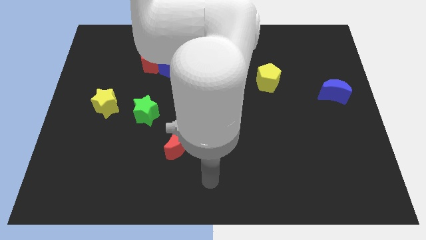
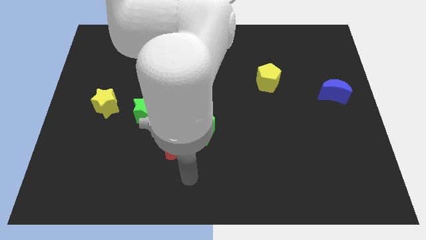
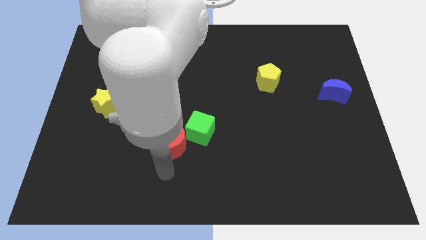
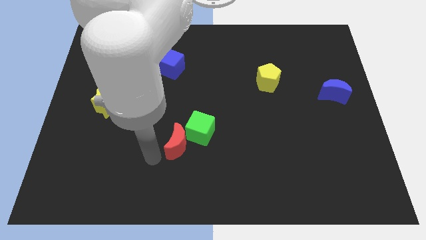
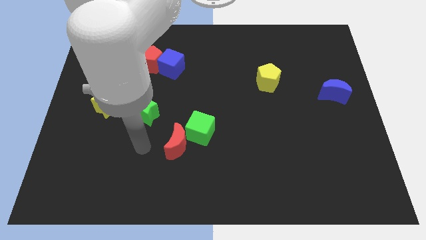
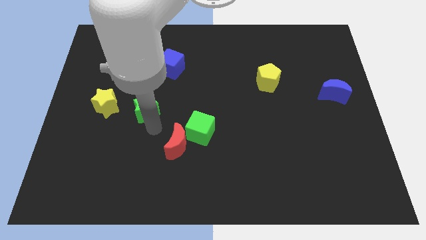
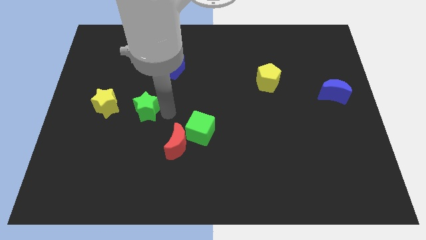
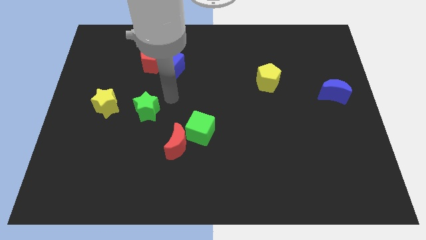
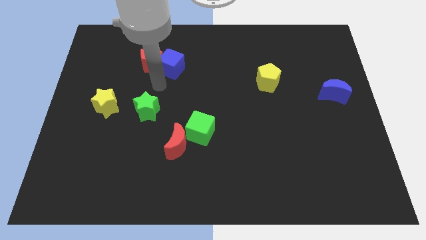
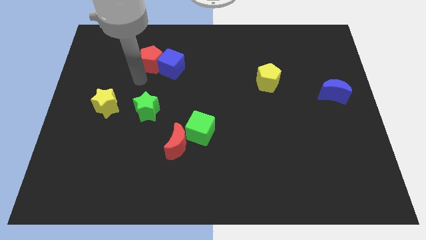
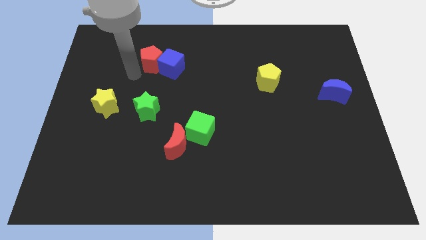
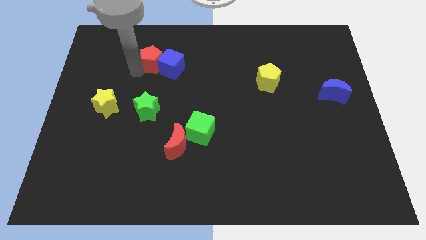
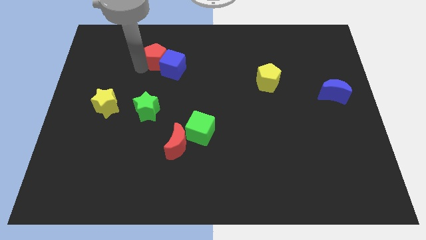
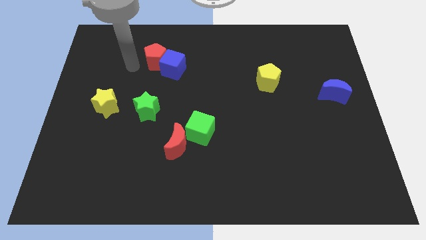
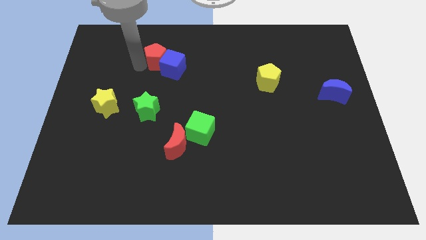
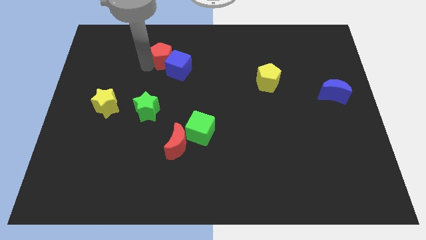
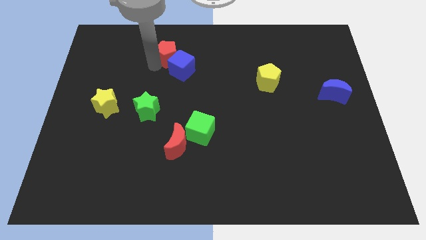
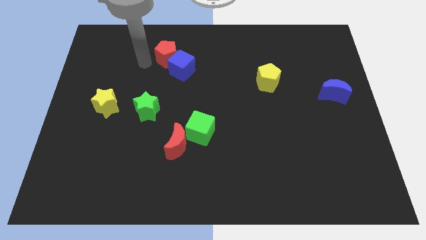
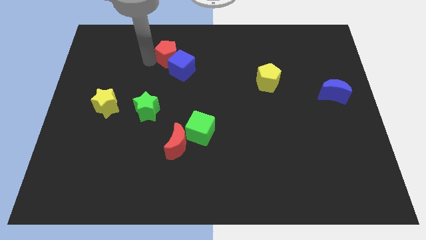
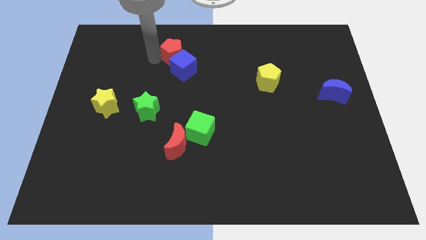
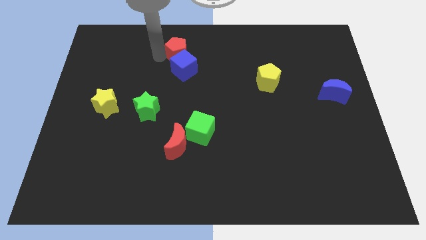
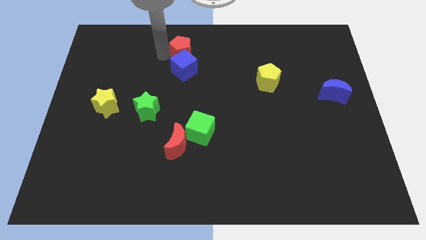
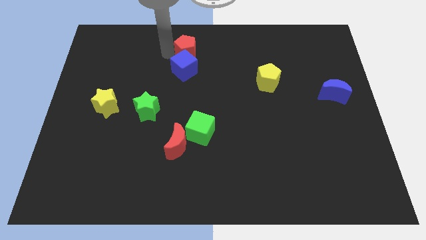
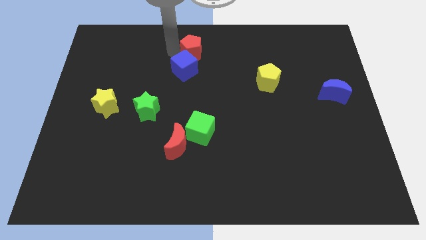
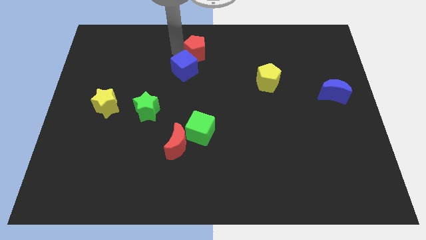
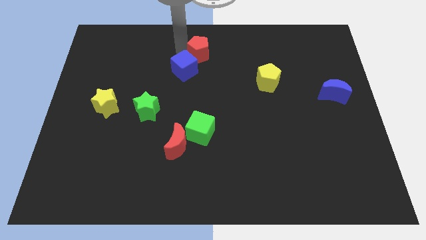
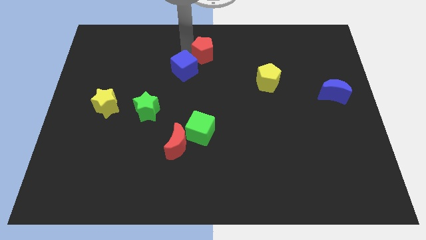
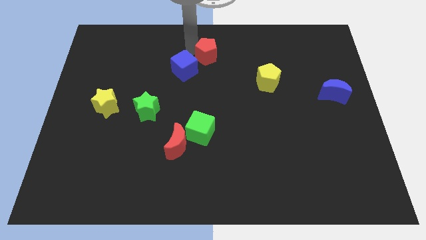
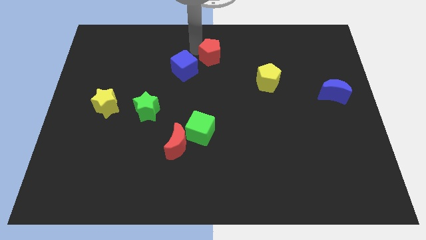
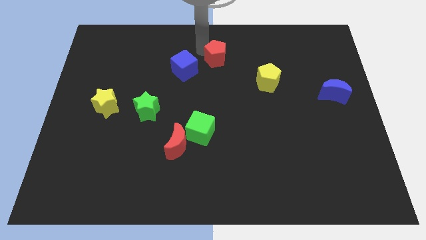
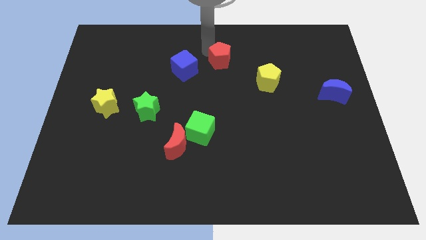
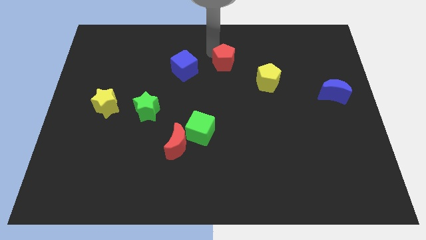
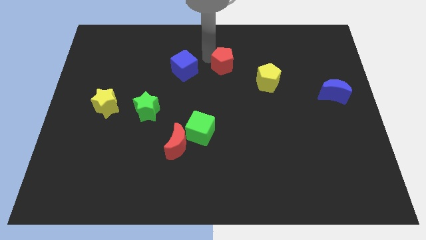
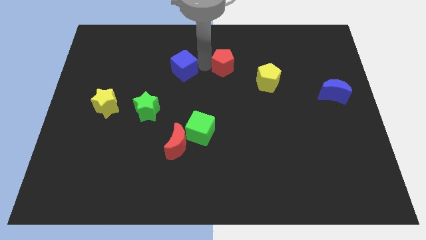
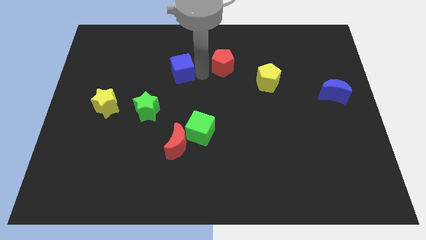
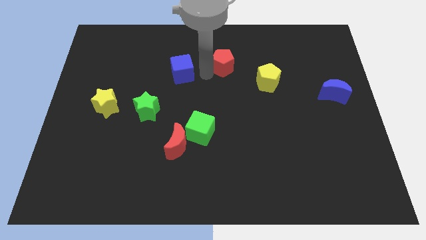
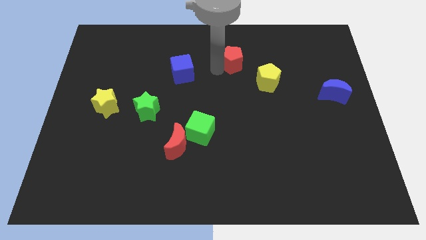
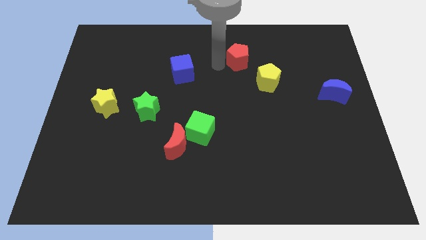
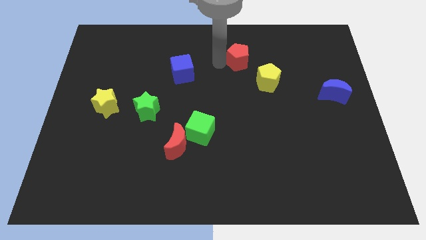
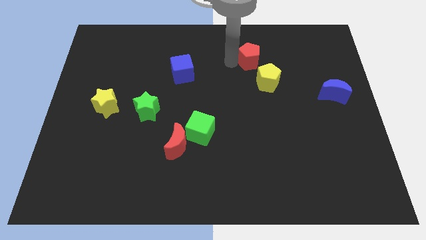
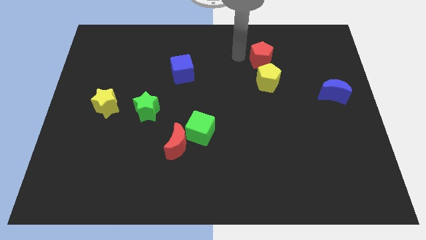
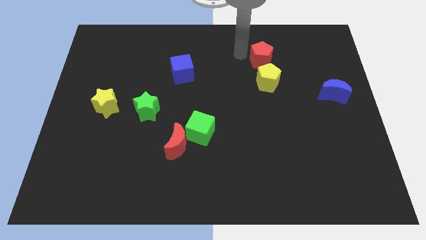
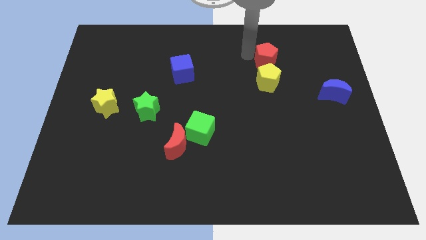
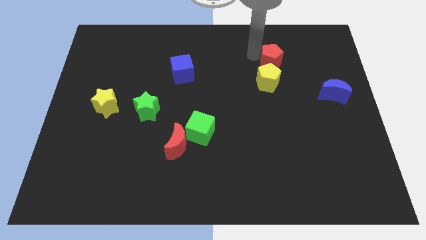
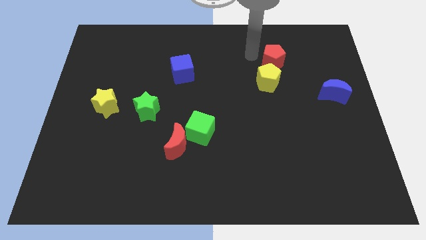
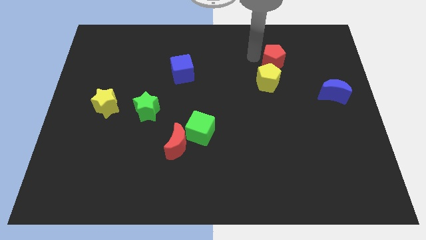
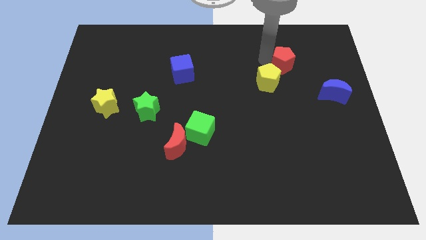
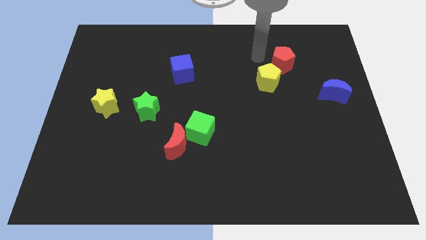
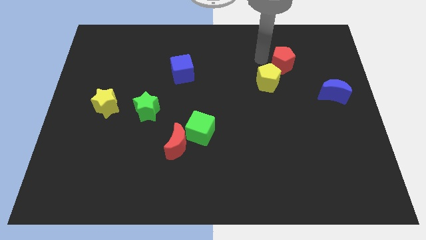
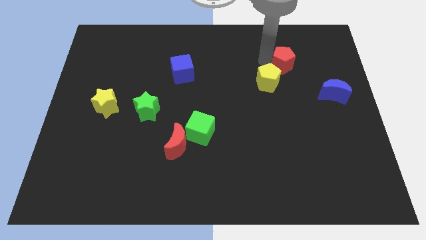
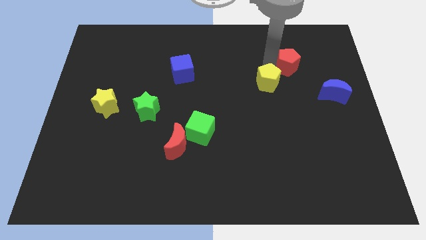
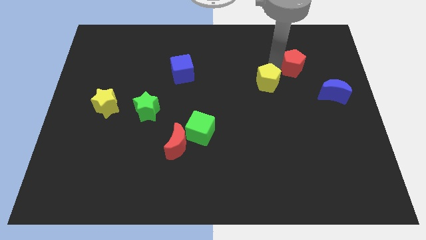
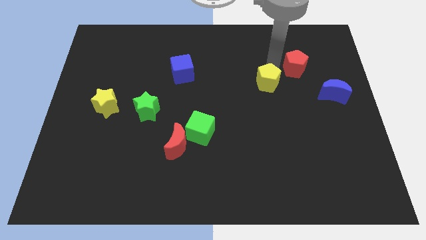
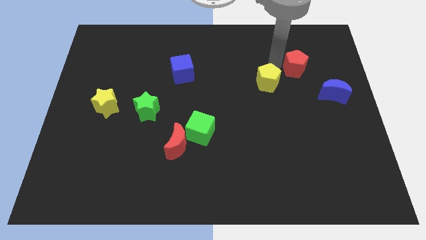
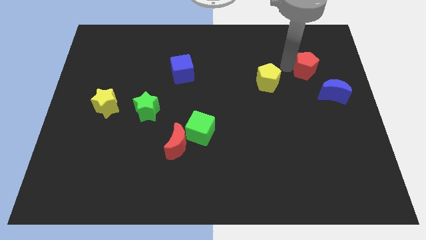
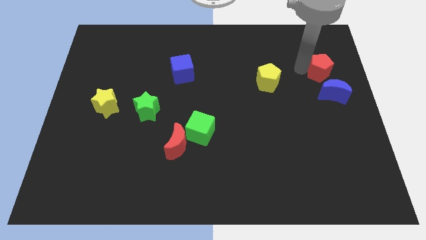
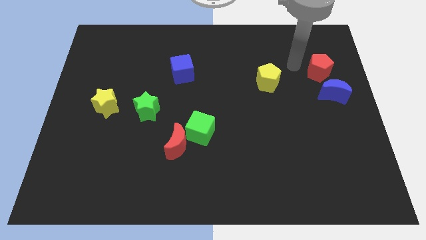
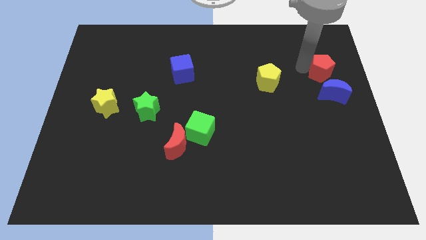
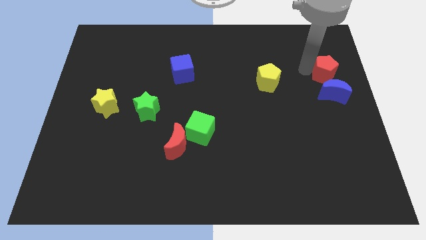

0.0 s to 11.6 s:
put the red pentagon to the right side
